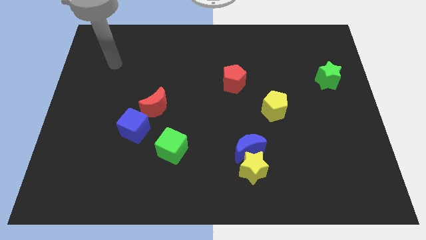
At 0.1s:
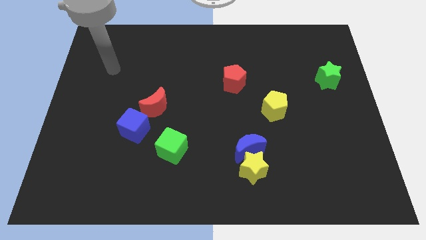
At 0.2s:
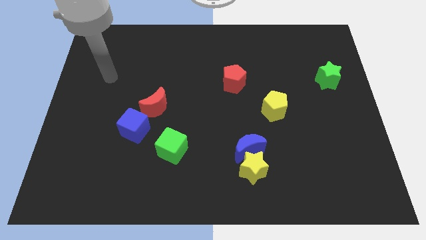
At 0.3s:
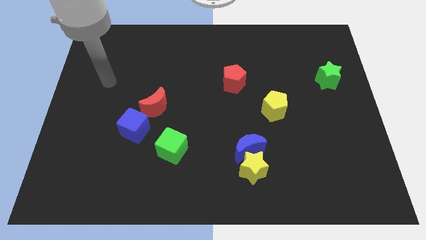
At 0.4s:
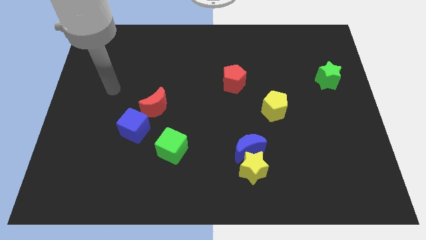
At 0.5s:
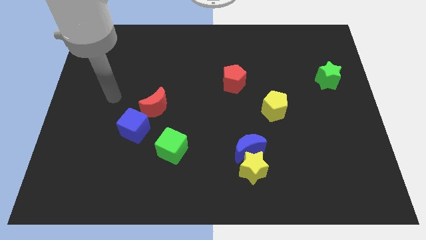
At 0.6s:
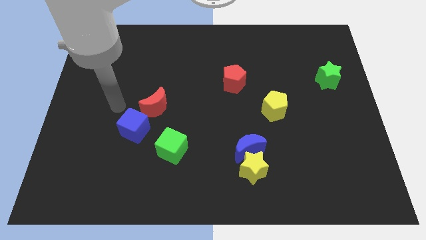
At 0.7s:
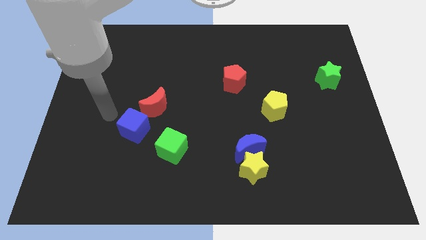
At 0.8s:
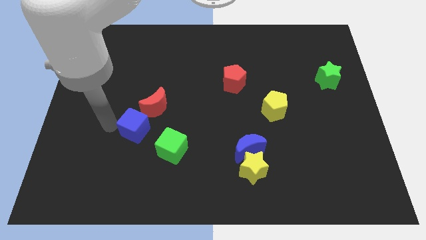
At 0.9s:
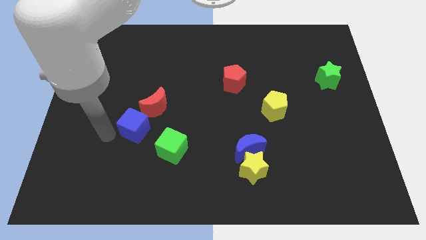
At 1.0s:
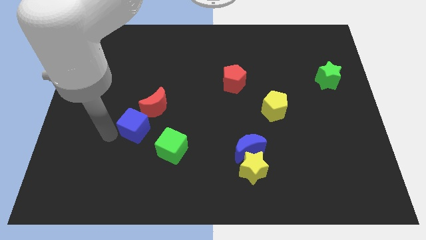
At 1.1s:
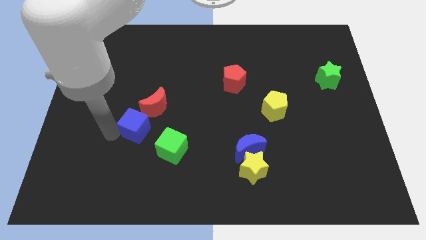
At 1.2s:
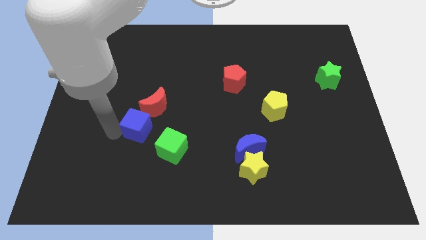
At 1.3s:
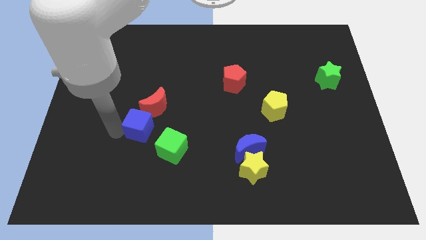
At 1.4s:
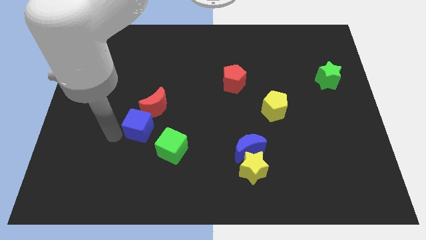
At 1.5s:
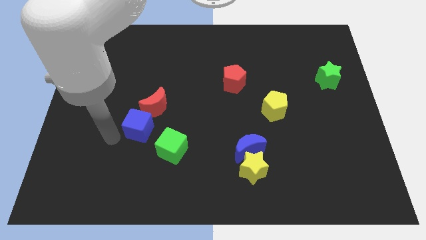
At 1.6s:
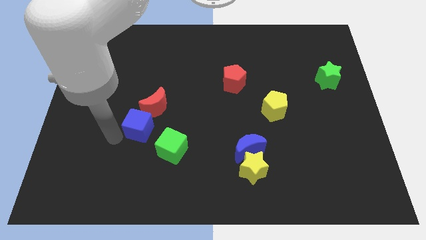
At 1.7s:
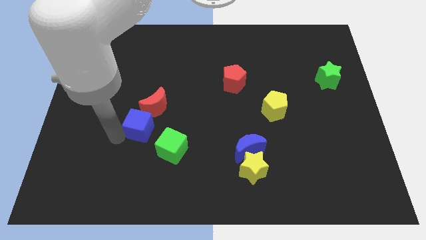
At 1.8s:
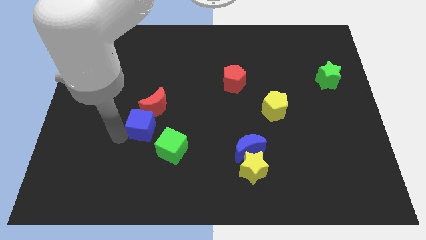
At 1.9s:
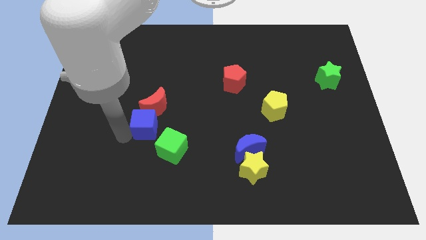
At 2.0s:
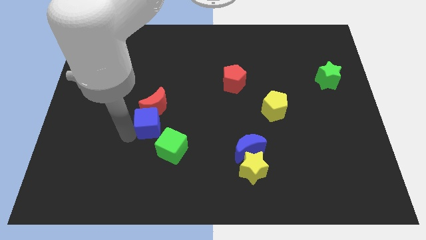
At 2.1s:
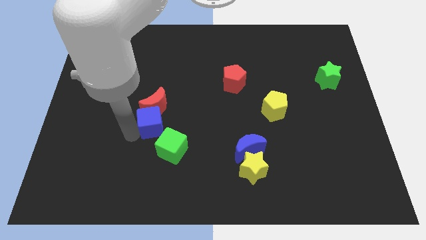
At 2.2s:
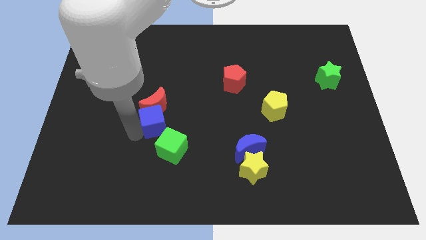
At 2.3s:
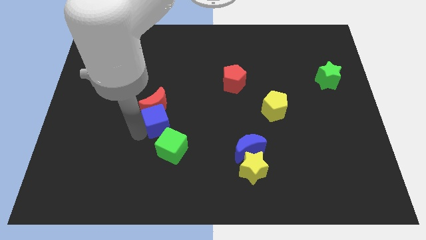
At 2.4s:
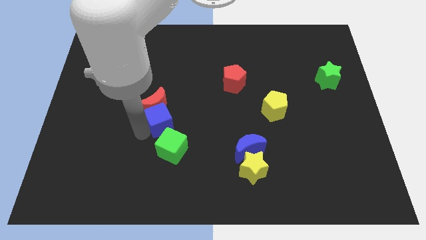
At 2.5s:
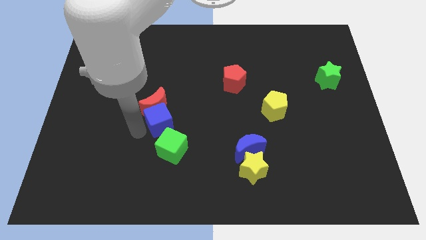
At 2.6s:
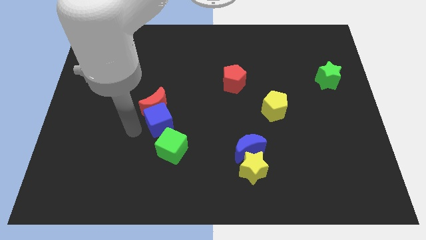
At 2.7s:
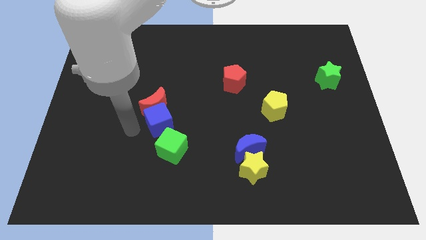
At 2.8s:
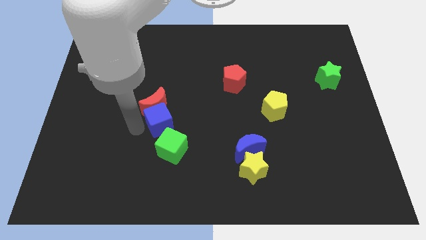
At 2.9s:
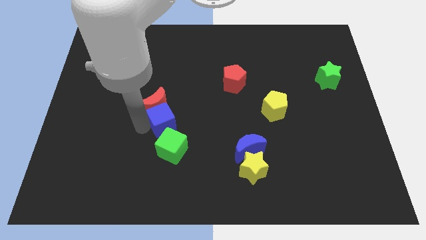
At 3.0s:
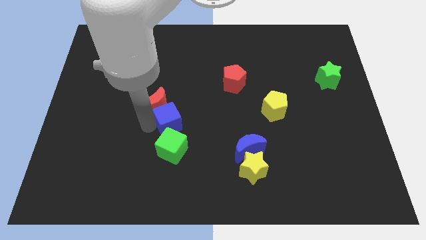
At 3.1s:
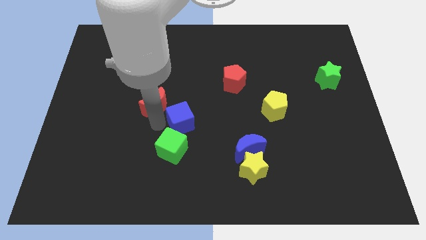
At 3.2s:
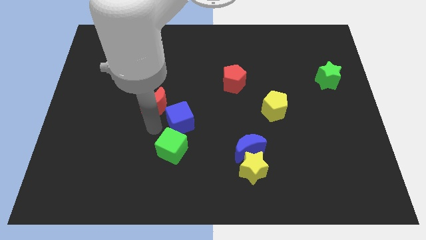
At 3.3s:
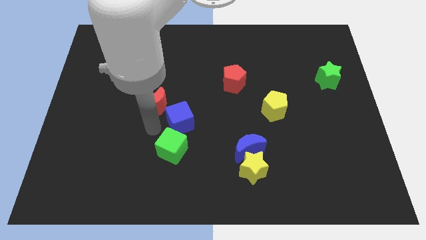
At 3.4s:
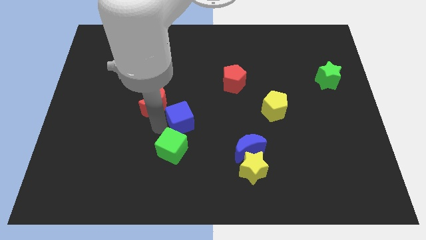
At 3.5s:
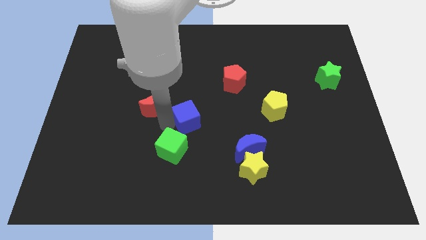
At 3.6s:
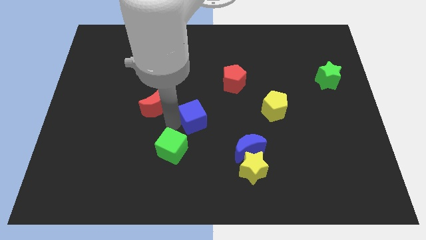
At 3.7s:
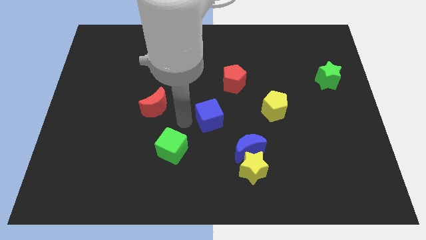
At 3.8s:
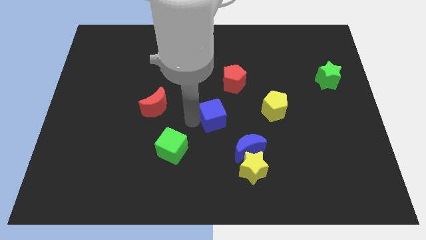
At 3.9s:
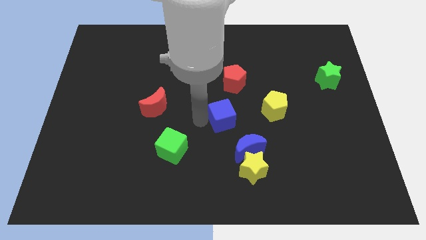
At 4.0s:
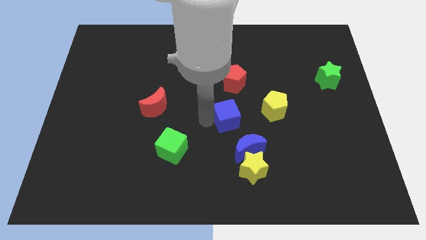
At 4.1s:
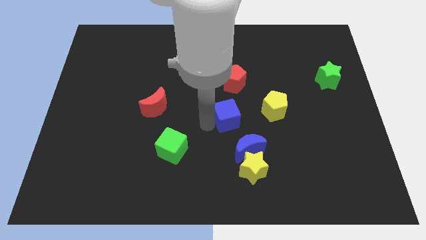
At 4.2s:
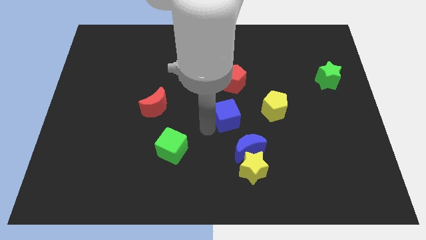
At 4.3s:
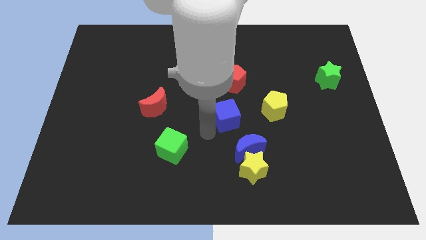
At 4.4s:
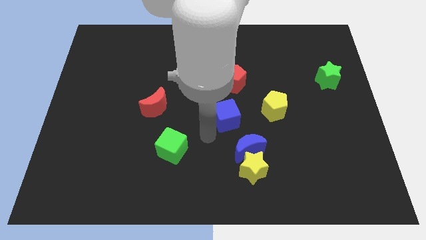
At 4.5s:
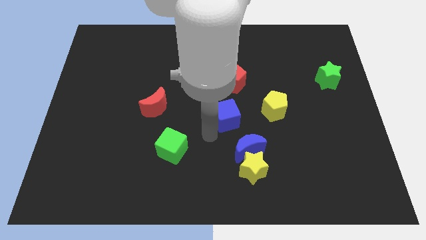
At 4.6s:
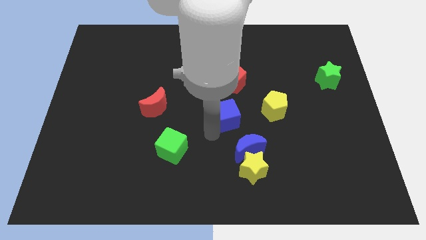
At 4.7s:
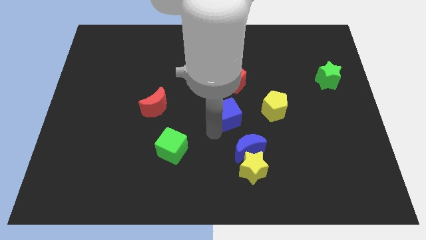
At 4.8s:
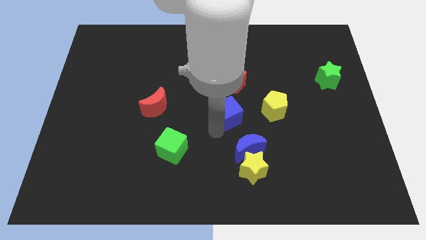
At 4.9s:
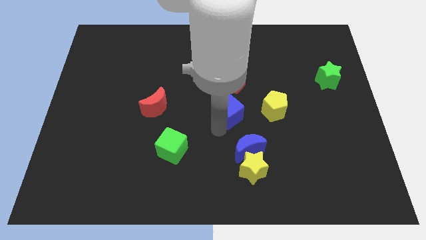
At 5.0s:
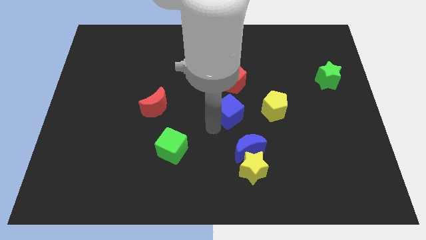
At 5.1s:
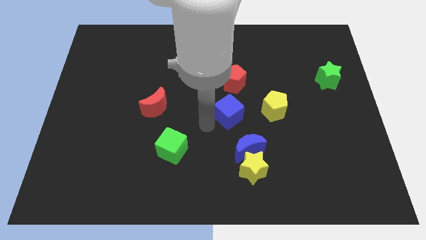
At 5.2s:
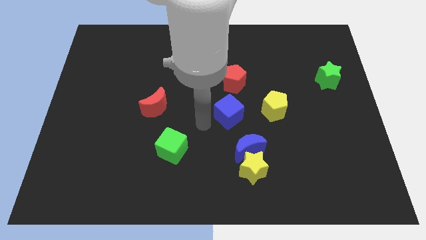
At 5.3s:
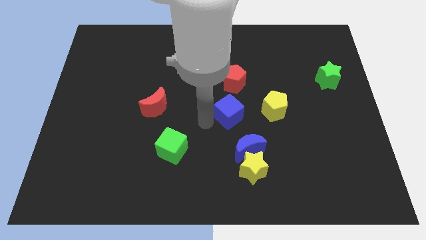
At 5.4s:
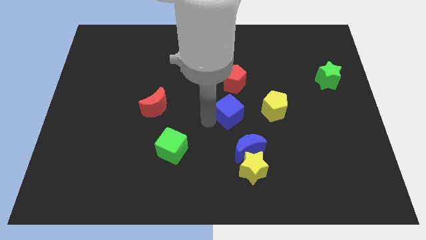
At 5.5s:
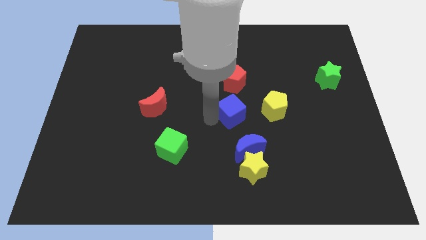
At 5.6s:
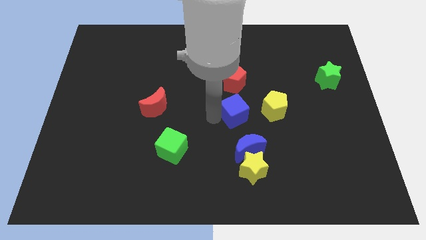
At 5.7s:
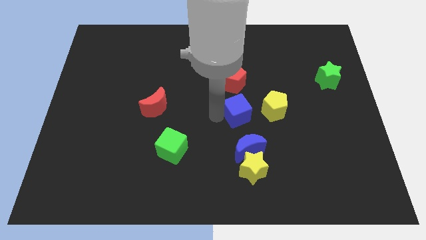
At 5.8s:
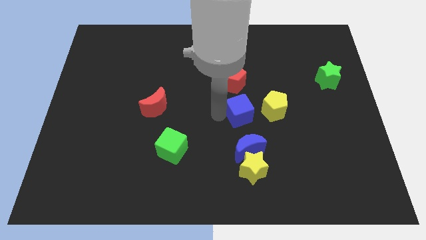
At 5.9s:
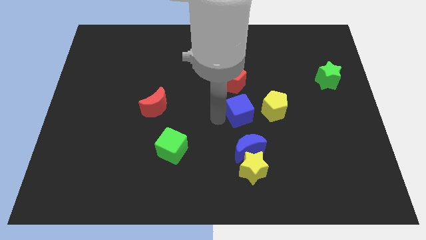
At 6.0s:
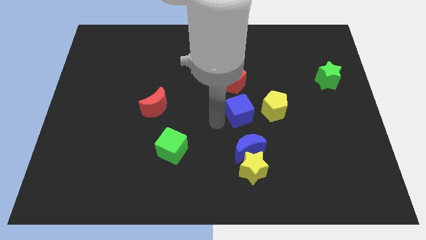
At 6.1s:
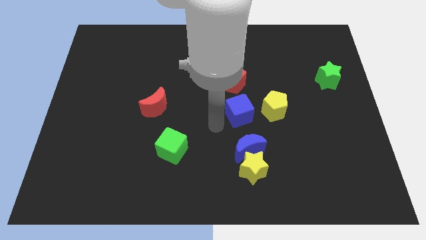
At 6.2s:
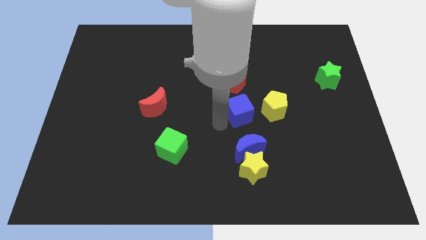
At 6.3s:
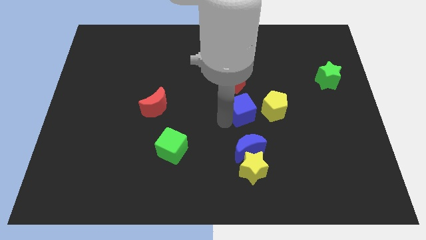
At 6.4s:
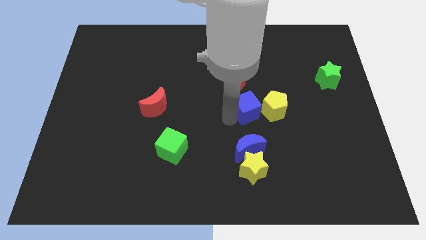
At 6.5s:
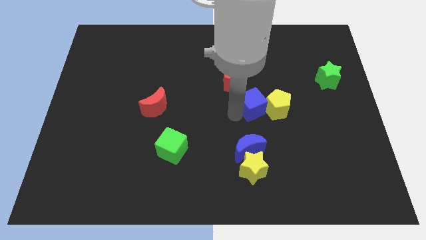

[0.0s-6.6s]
push the blue cube towards the yellow pentagon

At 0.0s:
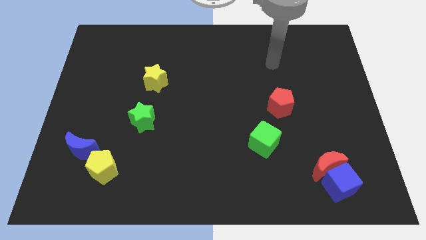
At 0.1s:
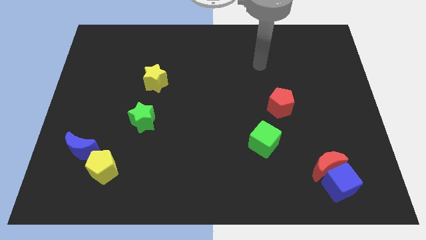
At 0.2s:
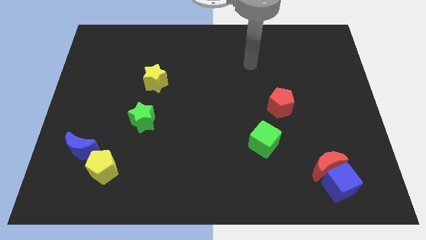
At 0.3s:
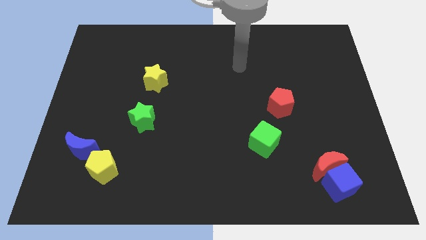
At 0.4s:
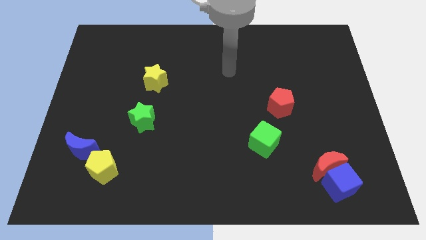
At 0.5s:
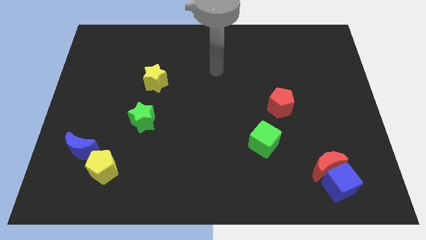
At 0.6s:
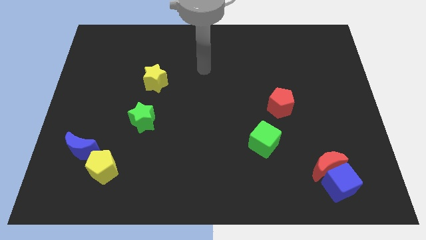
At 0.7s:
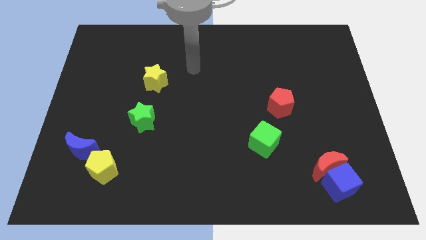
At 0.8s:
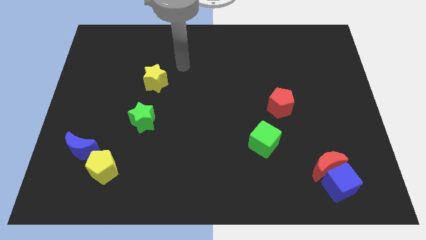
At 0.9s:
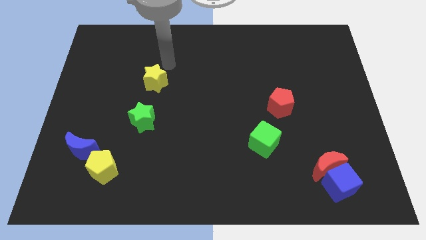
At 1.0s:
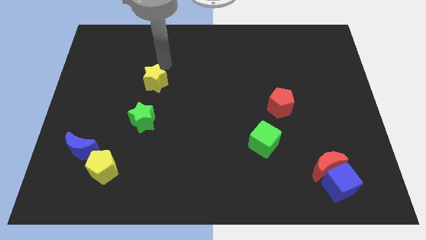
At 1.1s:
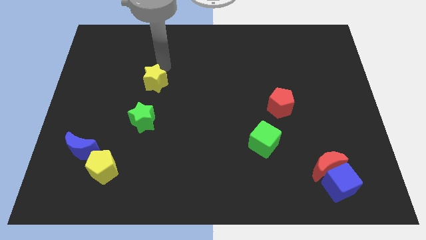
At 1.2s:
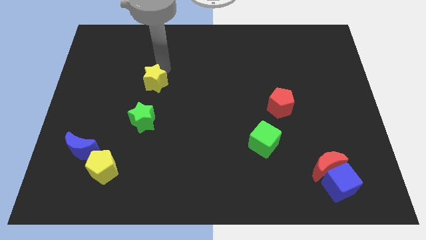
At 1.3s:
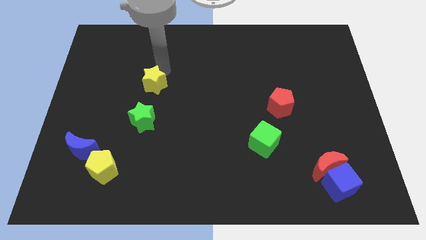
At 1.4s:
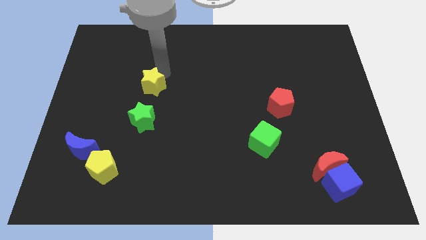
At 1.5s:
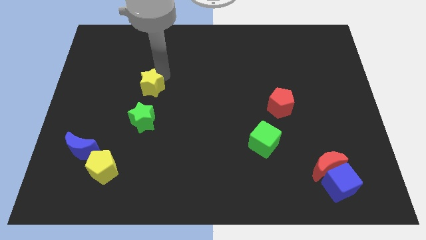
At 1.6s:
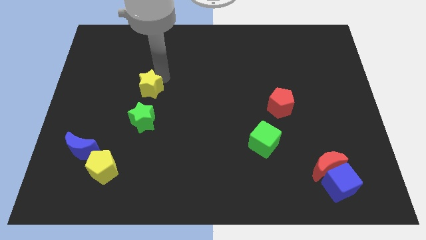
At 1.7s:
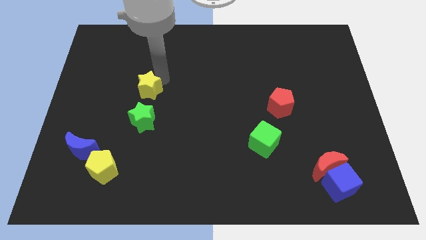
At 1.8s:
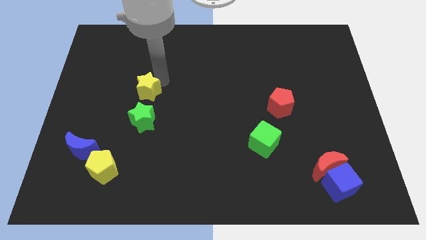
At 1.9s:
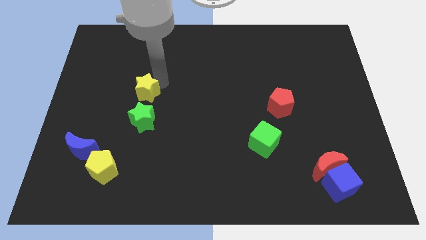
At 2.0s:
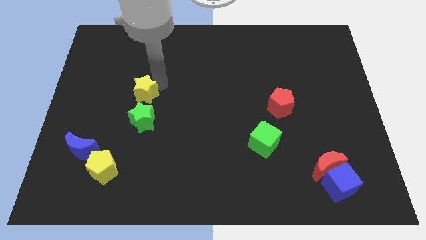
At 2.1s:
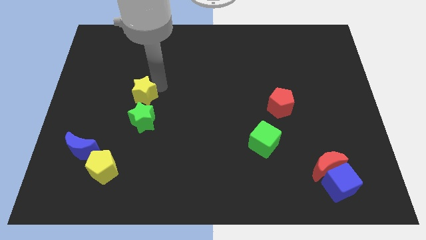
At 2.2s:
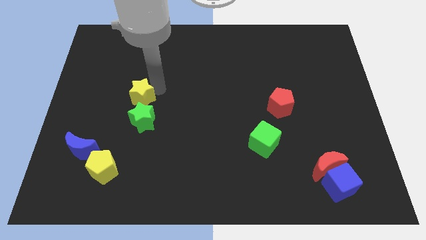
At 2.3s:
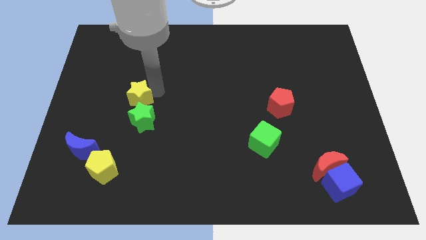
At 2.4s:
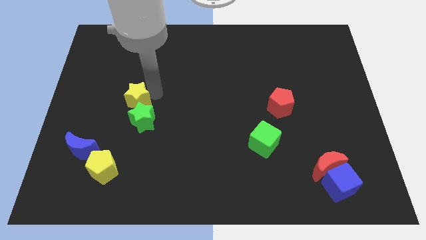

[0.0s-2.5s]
put the yellow star next to the green star
